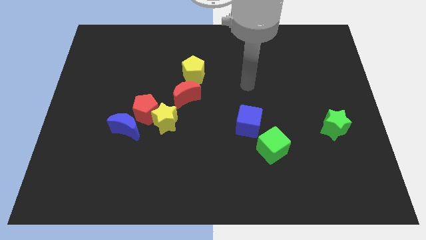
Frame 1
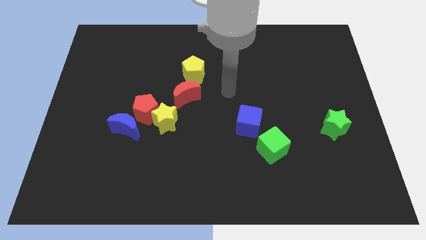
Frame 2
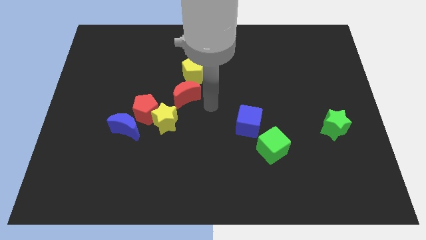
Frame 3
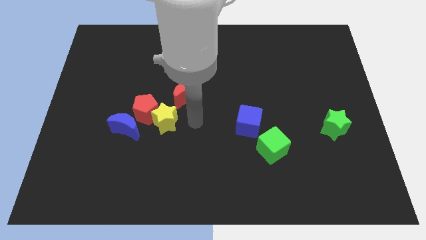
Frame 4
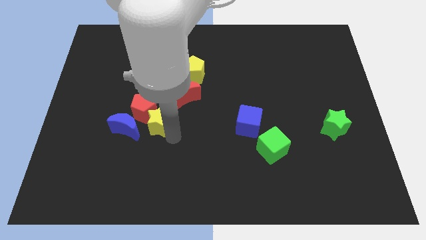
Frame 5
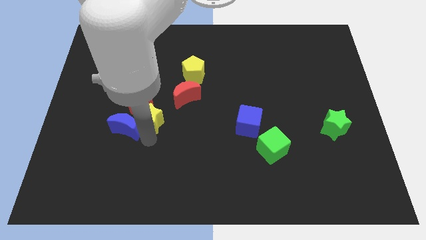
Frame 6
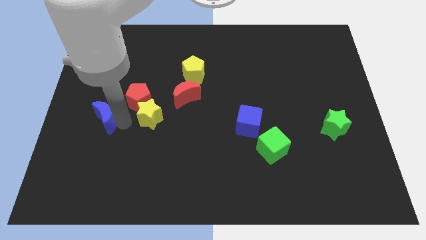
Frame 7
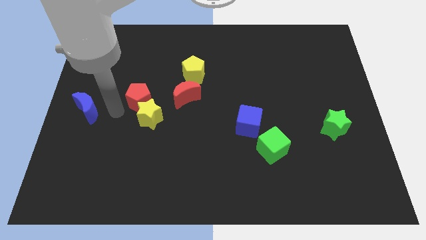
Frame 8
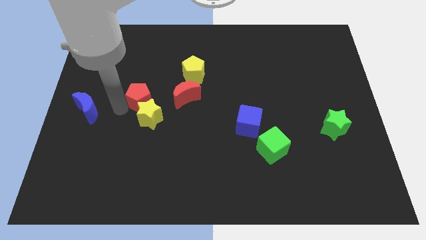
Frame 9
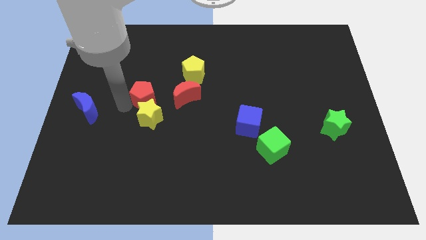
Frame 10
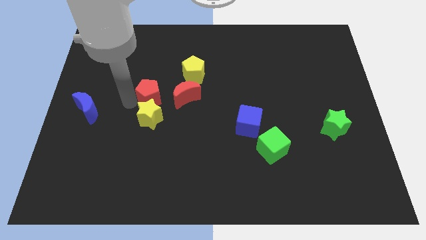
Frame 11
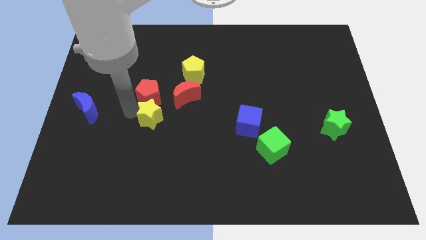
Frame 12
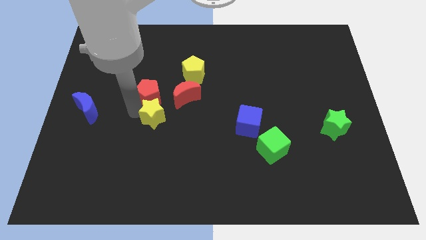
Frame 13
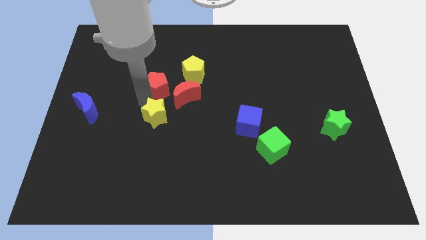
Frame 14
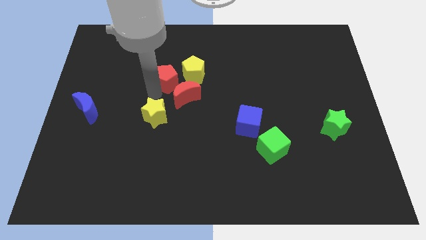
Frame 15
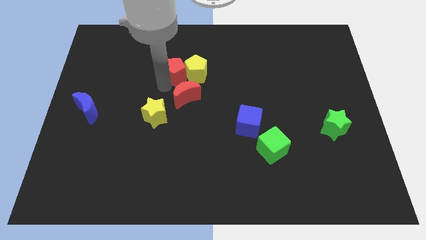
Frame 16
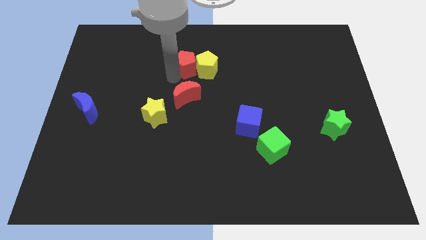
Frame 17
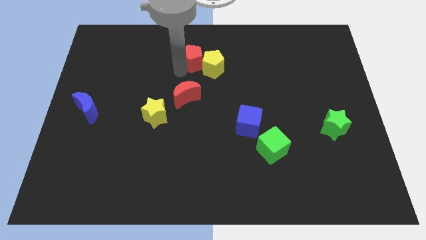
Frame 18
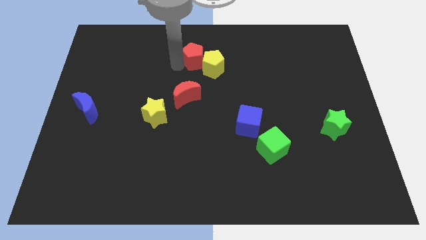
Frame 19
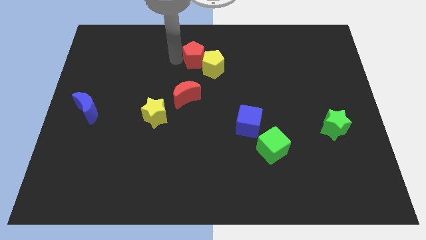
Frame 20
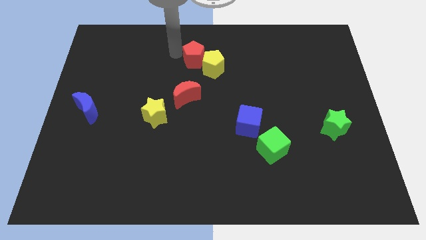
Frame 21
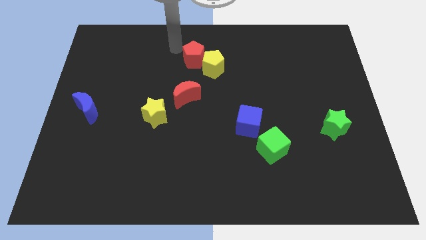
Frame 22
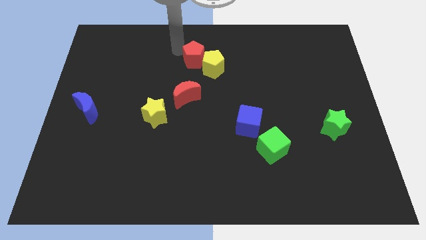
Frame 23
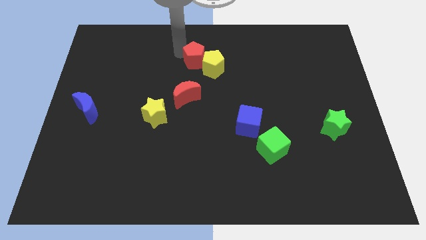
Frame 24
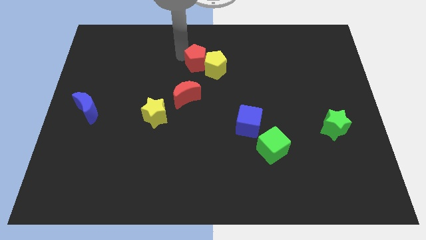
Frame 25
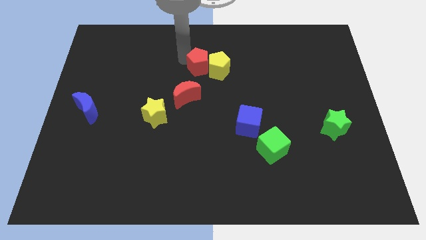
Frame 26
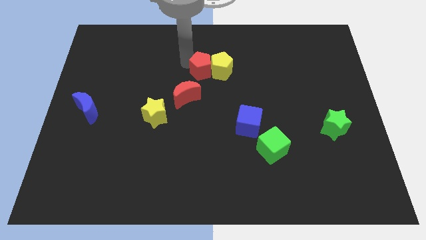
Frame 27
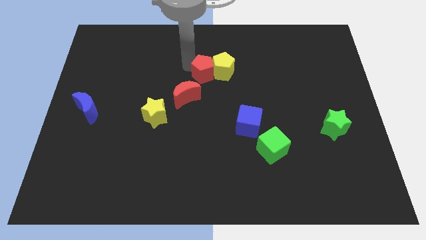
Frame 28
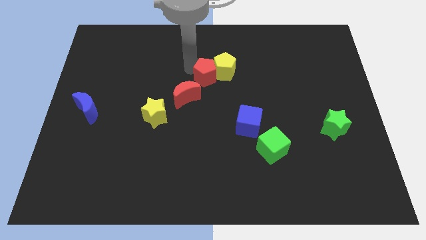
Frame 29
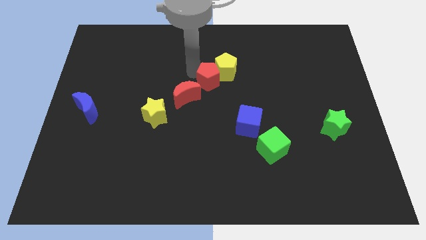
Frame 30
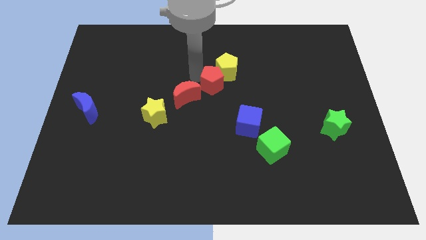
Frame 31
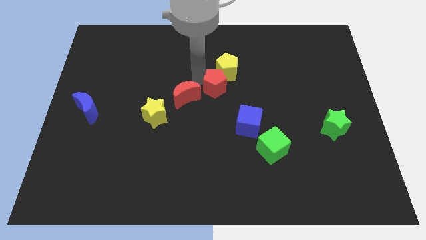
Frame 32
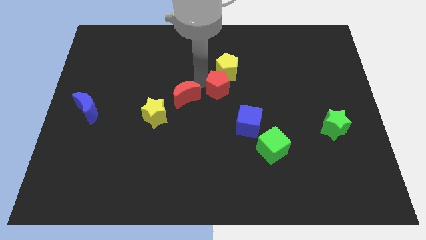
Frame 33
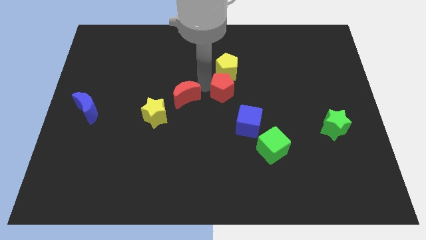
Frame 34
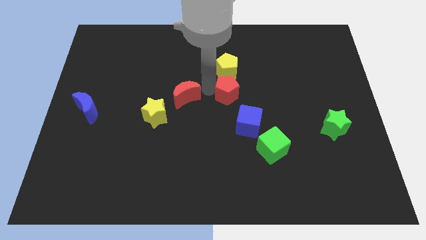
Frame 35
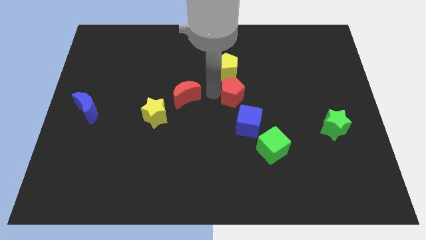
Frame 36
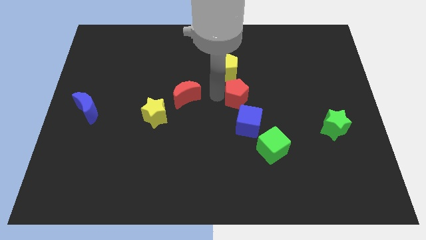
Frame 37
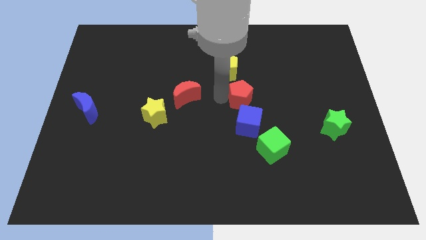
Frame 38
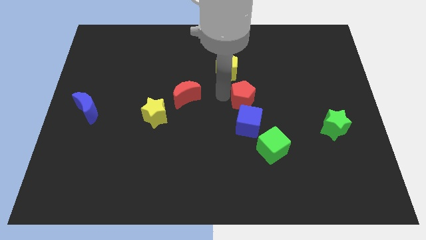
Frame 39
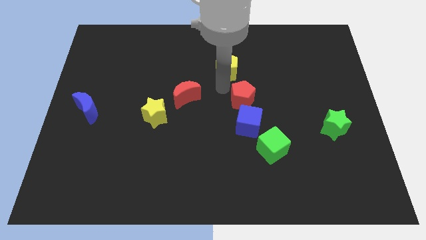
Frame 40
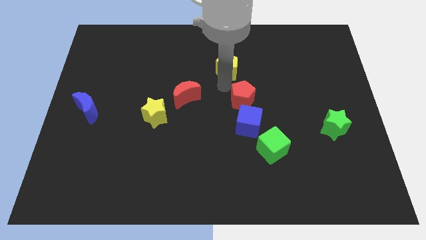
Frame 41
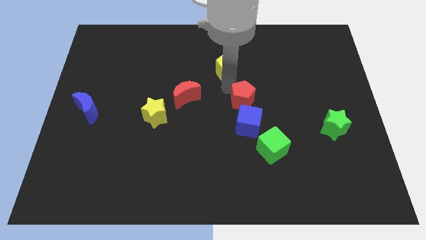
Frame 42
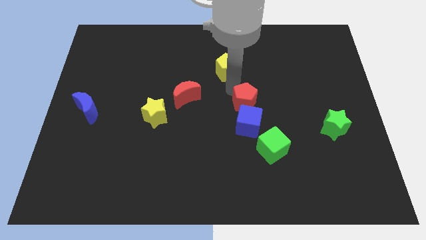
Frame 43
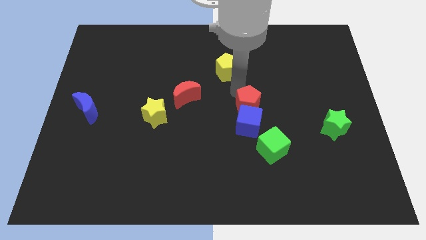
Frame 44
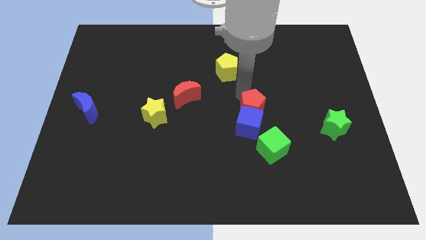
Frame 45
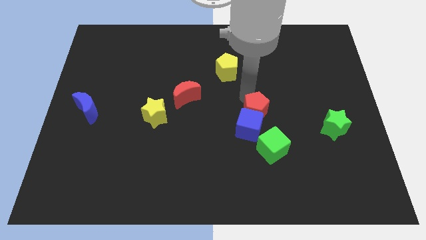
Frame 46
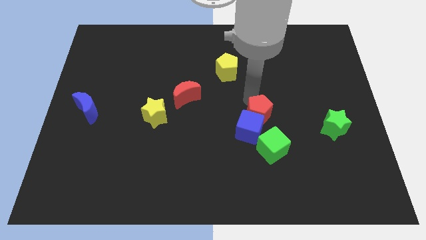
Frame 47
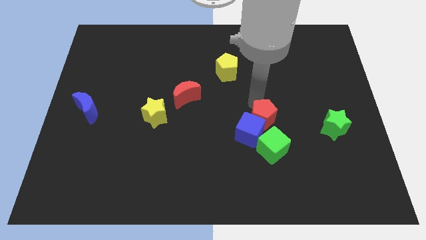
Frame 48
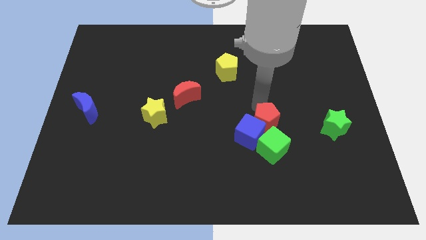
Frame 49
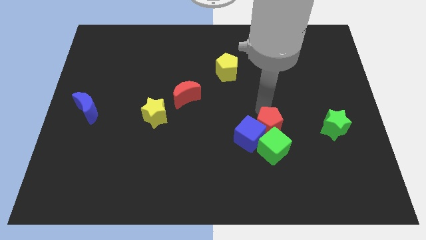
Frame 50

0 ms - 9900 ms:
move the red pentagon towards the green cube

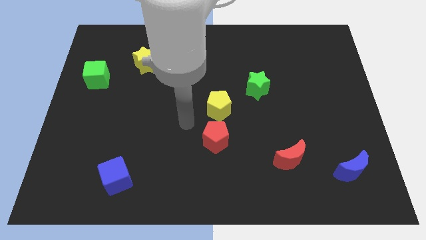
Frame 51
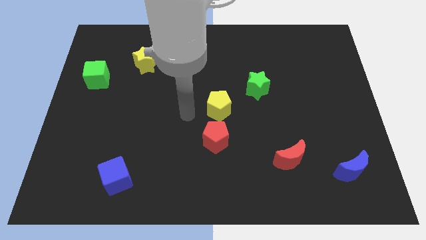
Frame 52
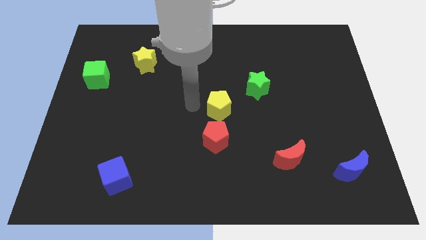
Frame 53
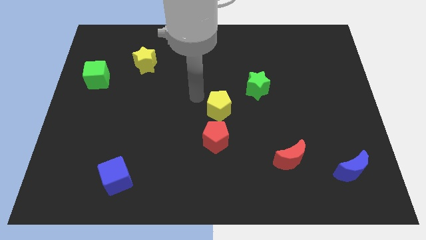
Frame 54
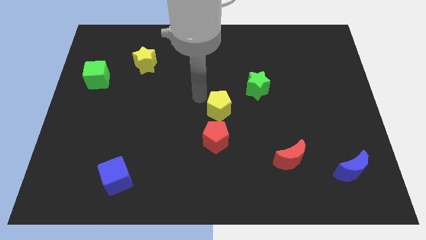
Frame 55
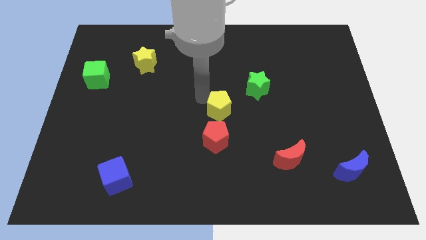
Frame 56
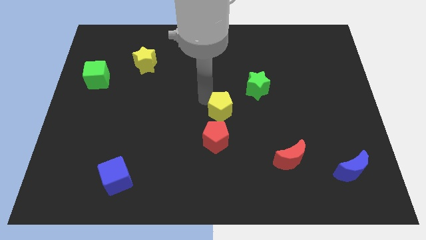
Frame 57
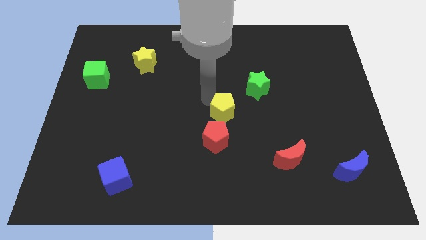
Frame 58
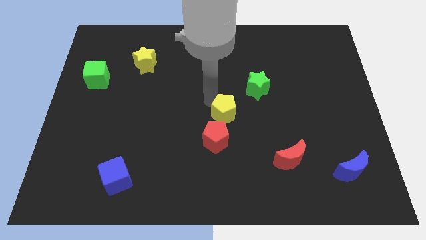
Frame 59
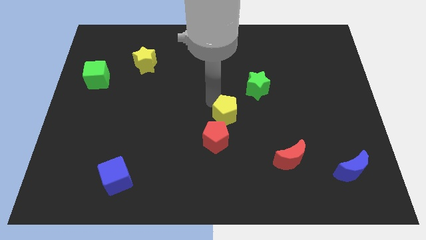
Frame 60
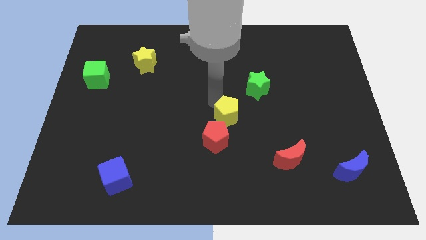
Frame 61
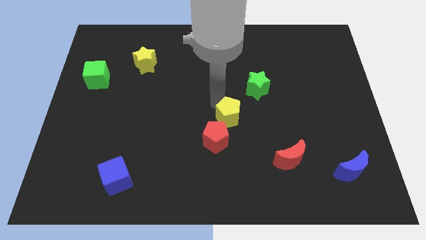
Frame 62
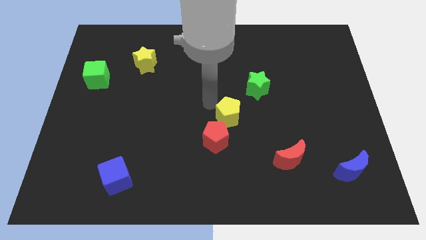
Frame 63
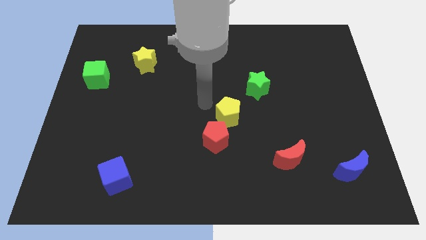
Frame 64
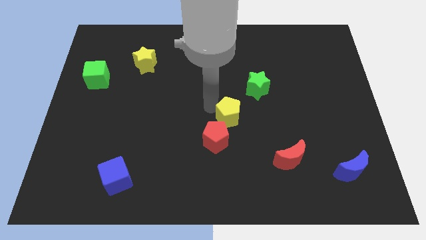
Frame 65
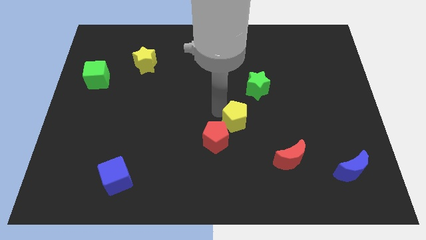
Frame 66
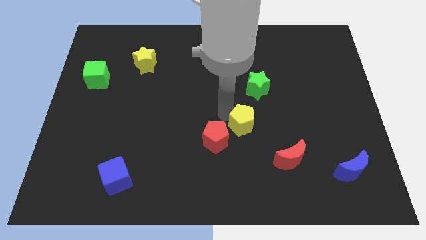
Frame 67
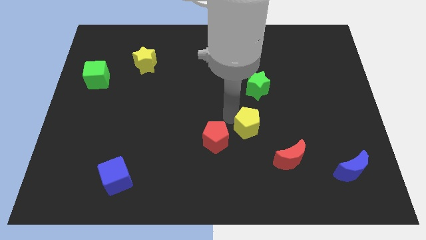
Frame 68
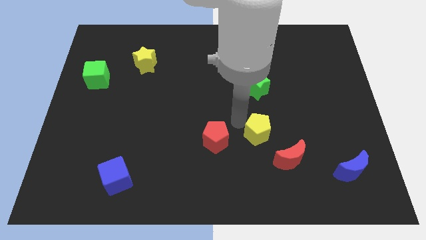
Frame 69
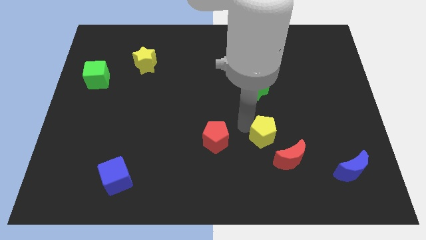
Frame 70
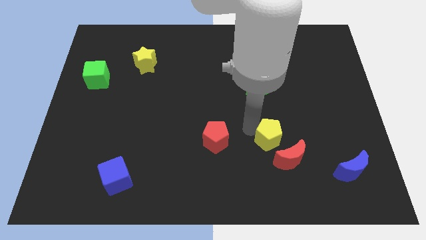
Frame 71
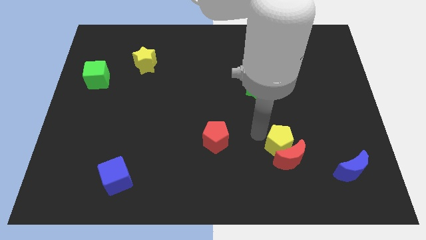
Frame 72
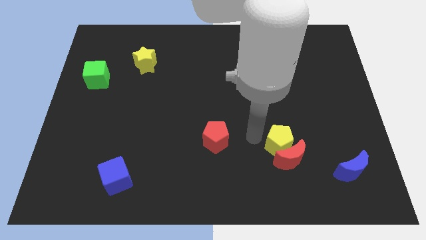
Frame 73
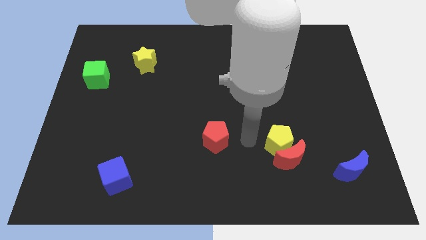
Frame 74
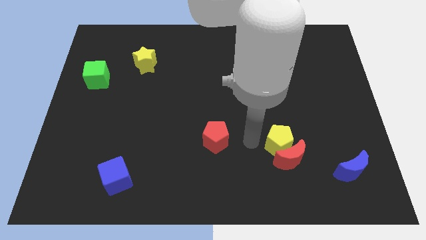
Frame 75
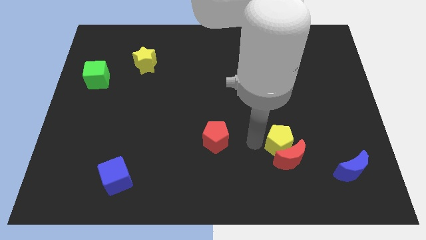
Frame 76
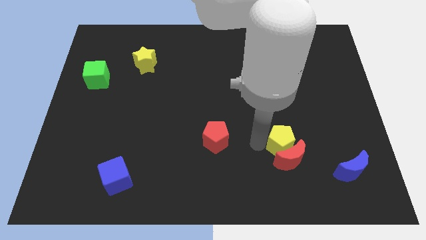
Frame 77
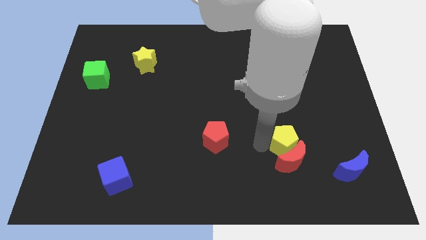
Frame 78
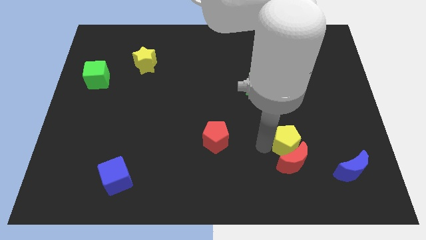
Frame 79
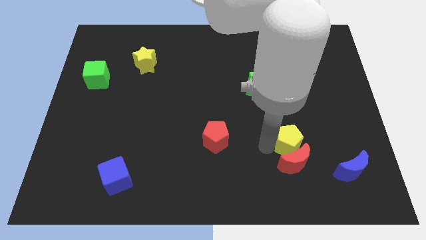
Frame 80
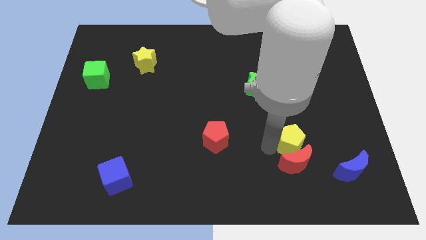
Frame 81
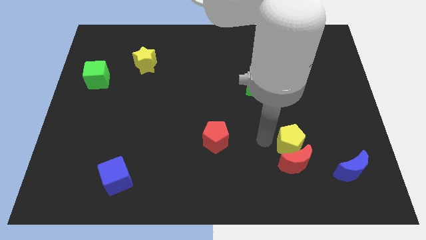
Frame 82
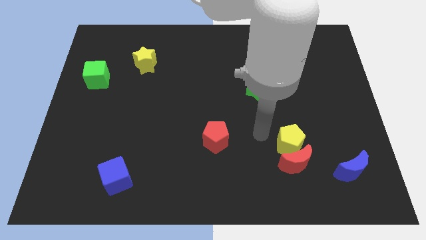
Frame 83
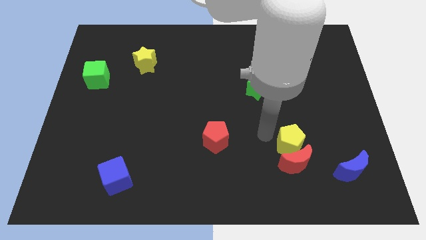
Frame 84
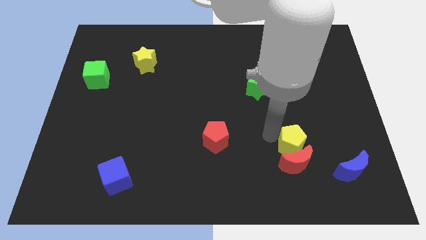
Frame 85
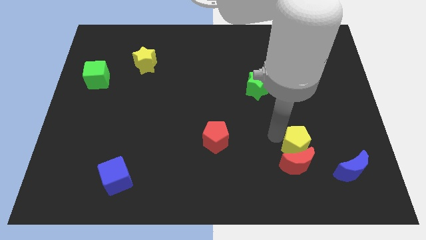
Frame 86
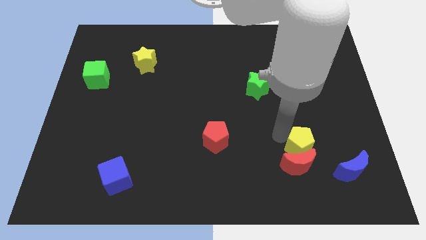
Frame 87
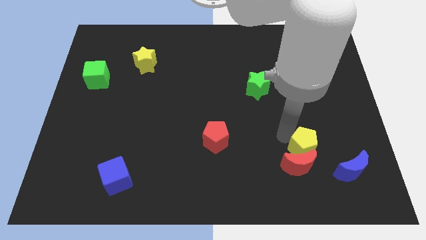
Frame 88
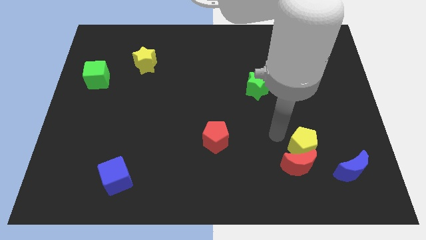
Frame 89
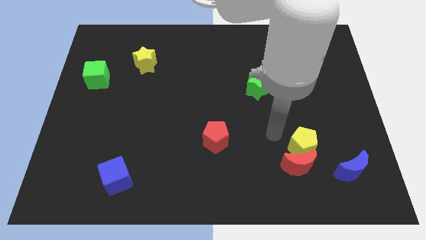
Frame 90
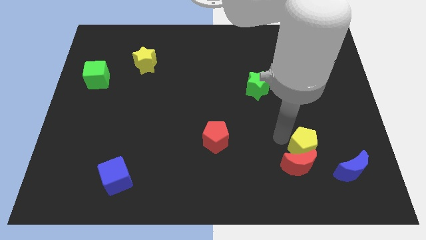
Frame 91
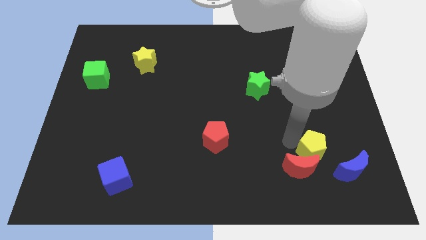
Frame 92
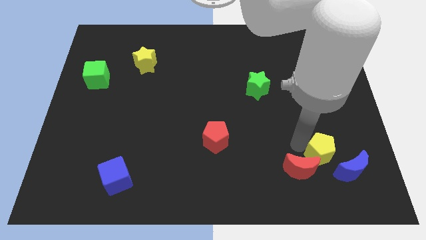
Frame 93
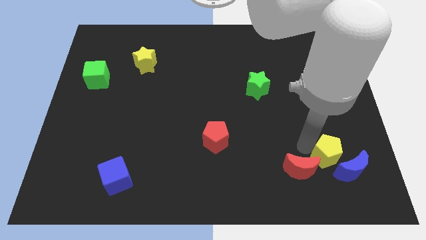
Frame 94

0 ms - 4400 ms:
move the yellow pentagon to the blue moon
